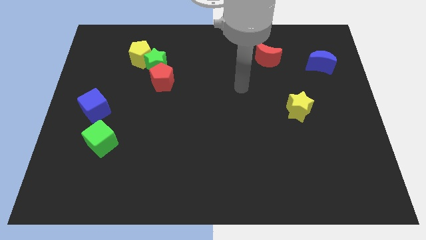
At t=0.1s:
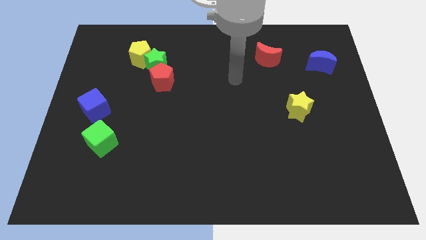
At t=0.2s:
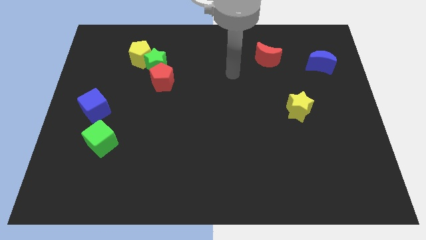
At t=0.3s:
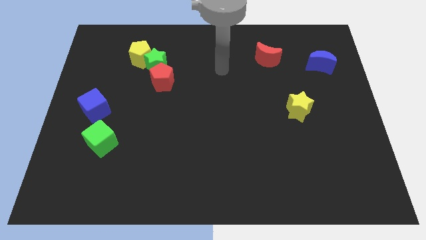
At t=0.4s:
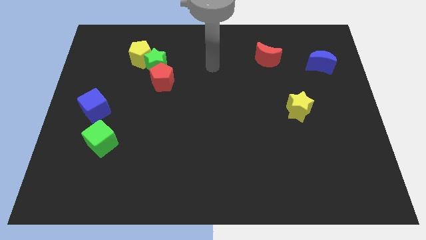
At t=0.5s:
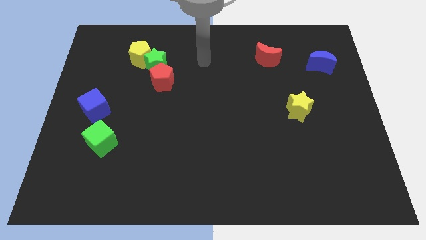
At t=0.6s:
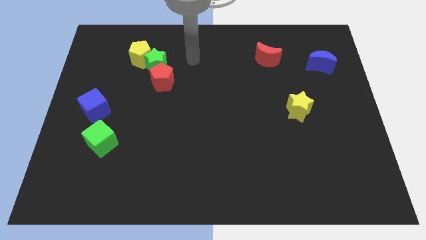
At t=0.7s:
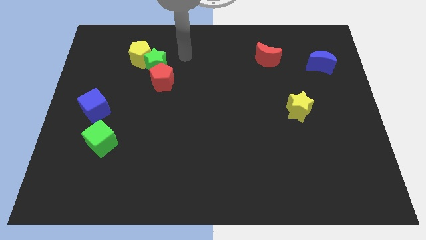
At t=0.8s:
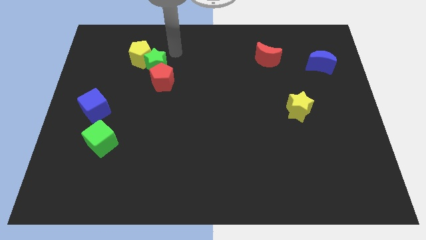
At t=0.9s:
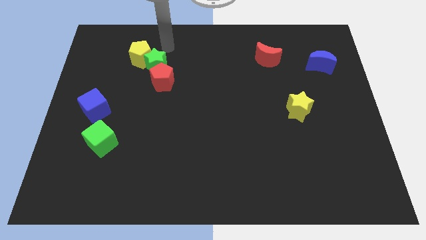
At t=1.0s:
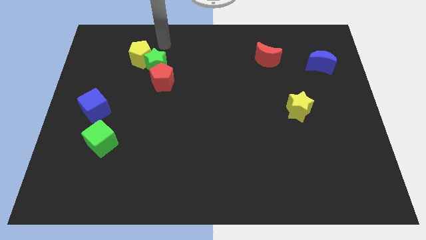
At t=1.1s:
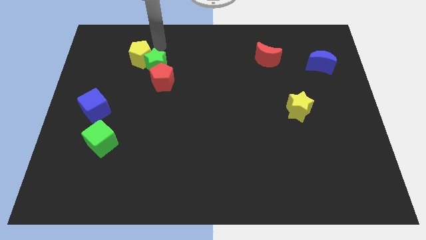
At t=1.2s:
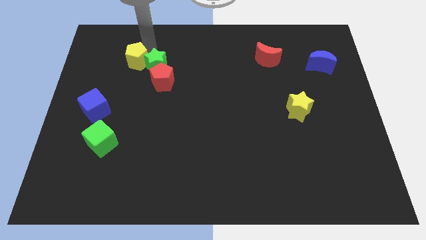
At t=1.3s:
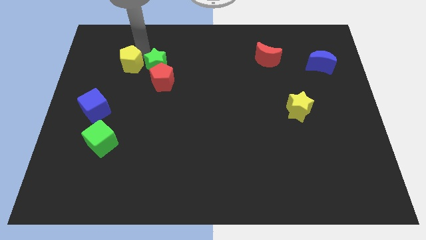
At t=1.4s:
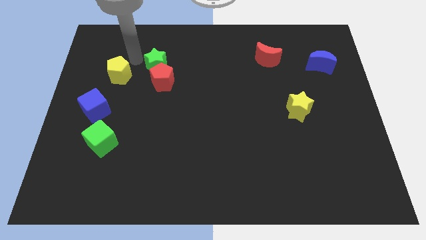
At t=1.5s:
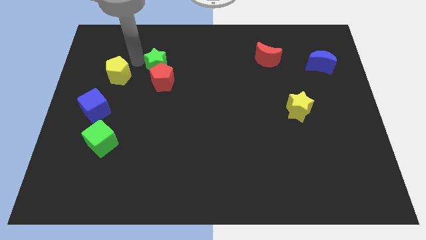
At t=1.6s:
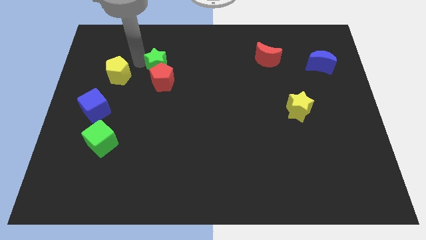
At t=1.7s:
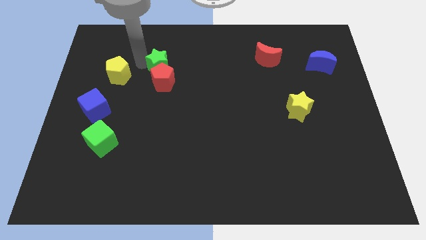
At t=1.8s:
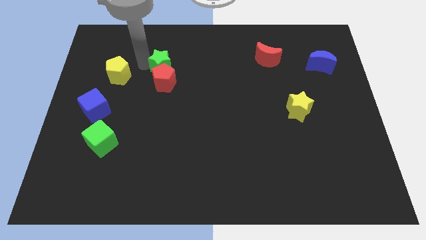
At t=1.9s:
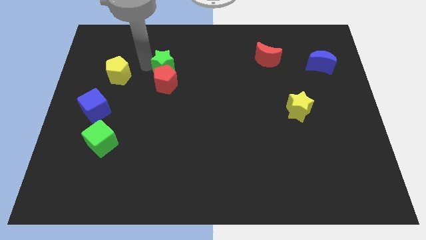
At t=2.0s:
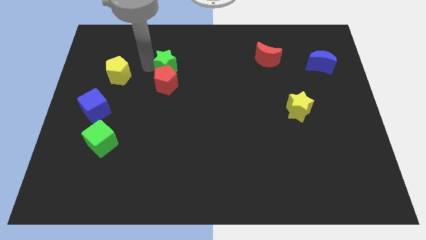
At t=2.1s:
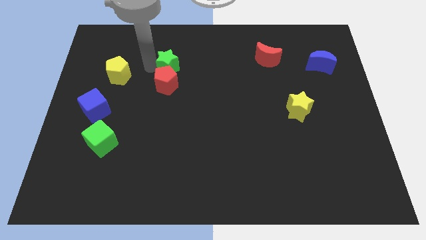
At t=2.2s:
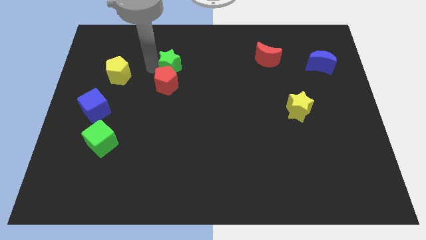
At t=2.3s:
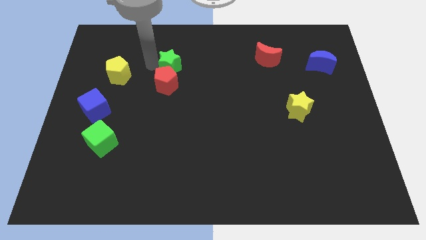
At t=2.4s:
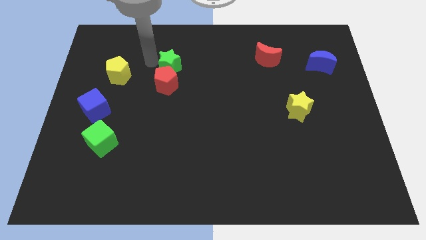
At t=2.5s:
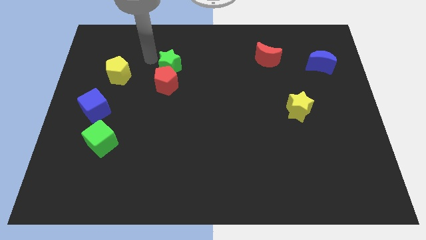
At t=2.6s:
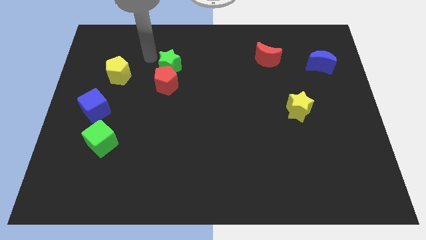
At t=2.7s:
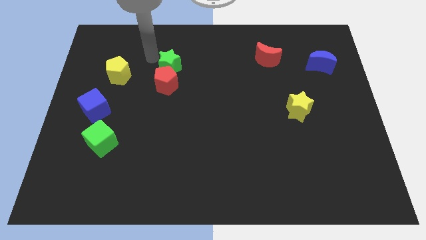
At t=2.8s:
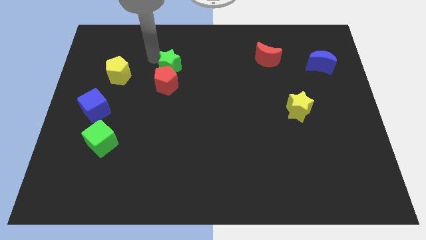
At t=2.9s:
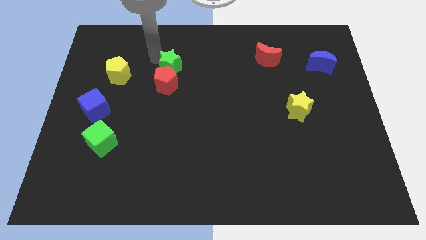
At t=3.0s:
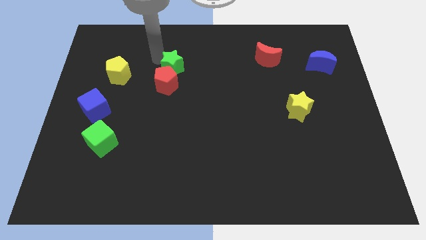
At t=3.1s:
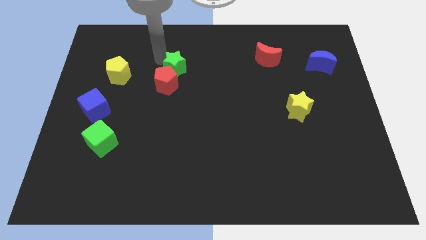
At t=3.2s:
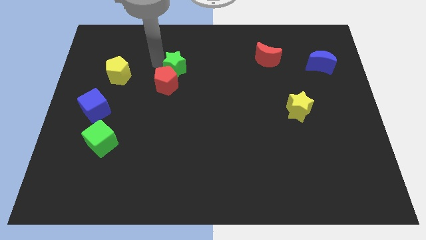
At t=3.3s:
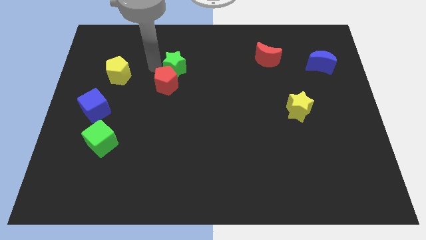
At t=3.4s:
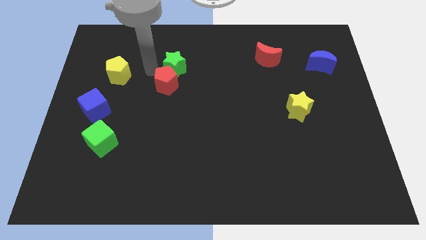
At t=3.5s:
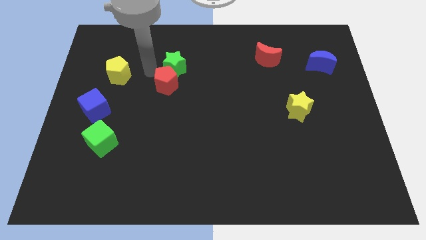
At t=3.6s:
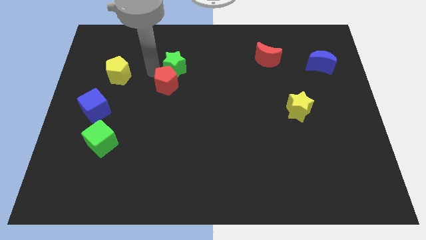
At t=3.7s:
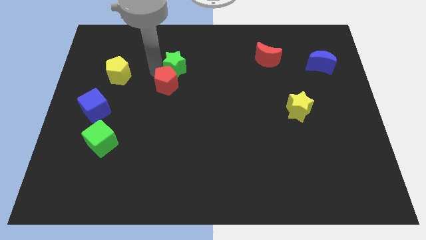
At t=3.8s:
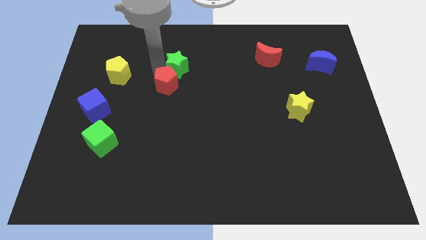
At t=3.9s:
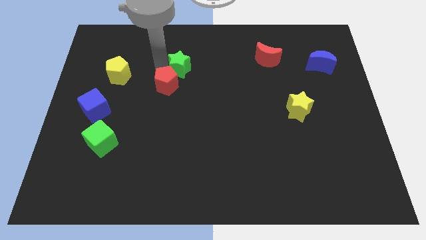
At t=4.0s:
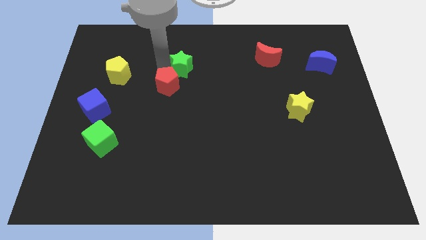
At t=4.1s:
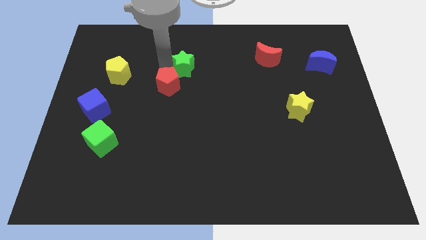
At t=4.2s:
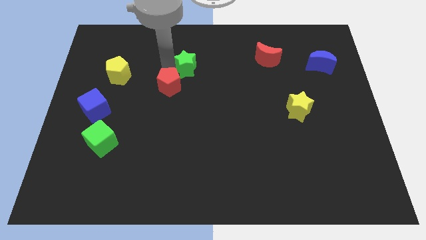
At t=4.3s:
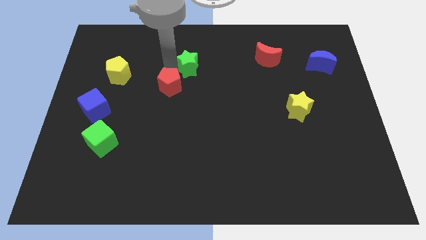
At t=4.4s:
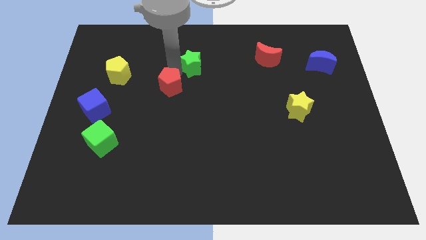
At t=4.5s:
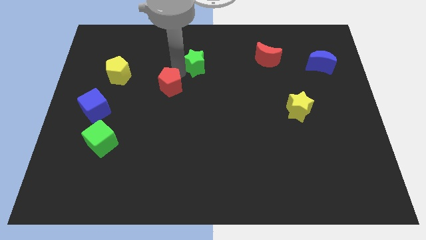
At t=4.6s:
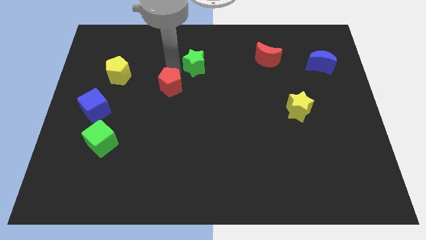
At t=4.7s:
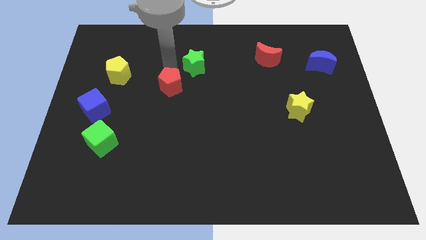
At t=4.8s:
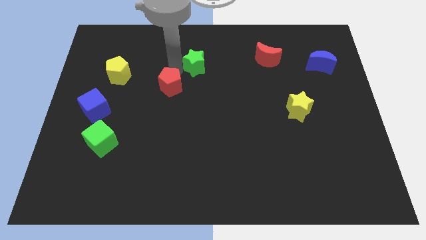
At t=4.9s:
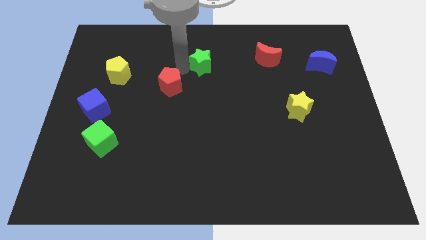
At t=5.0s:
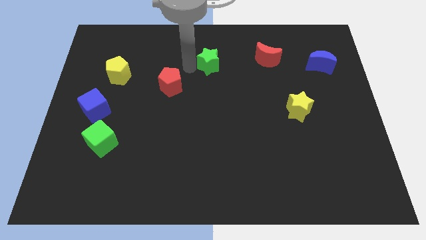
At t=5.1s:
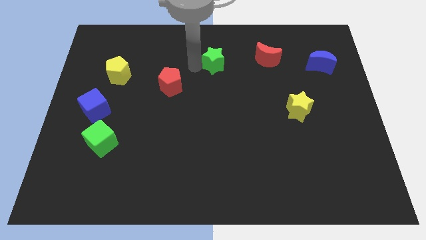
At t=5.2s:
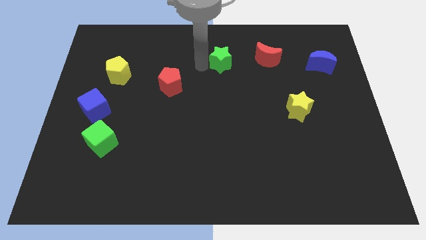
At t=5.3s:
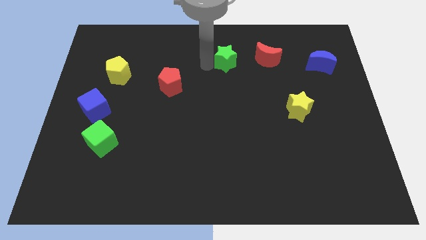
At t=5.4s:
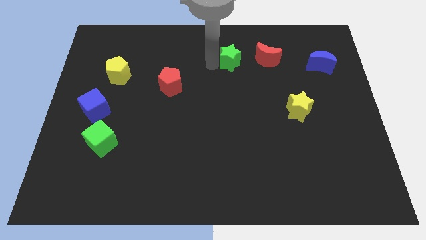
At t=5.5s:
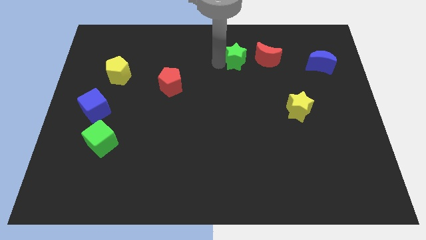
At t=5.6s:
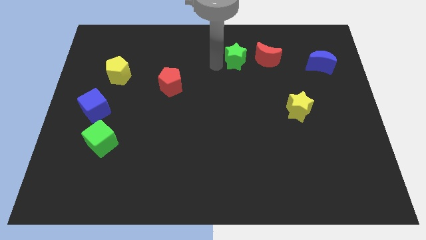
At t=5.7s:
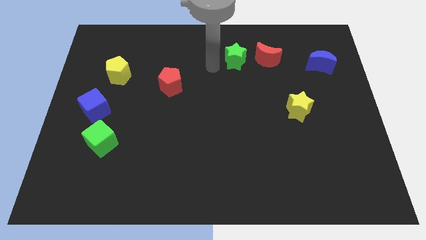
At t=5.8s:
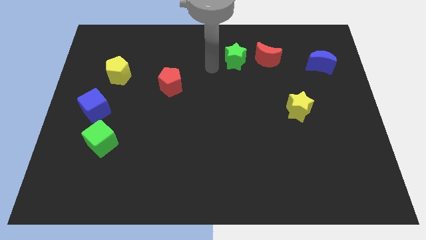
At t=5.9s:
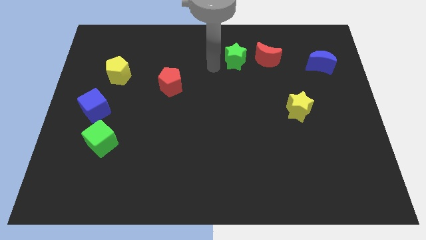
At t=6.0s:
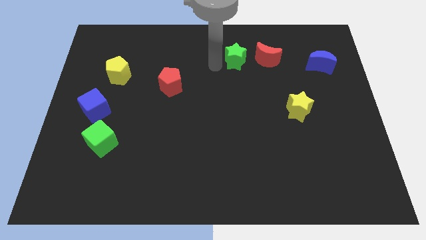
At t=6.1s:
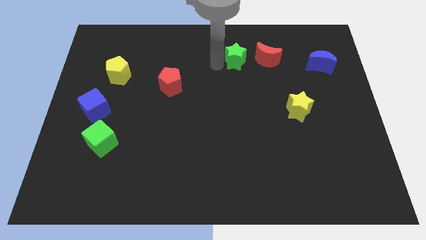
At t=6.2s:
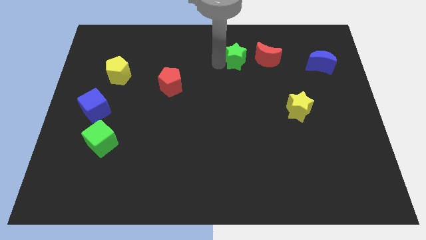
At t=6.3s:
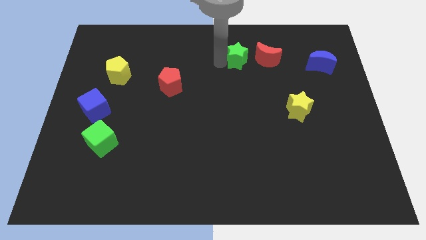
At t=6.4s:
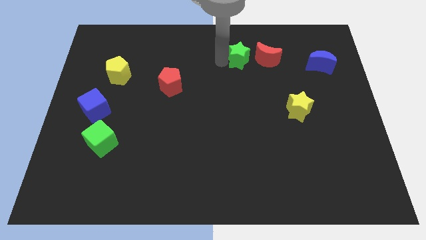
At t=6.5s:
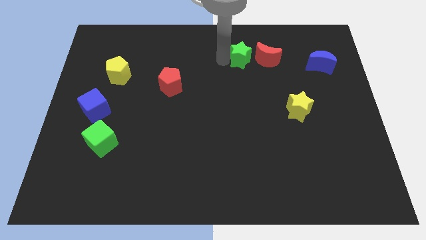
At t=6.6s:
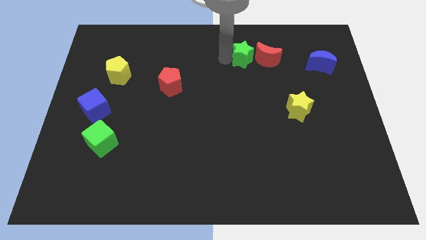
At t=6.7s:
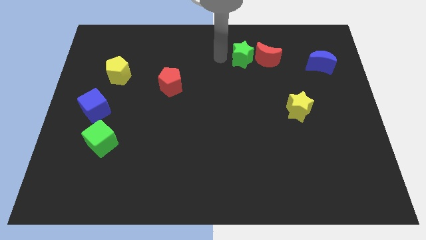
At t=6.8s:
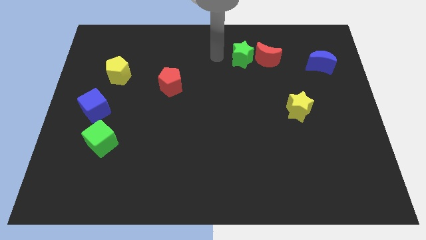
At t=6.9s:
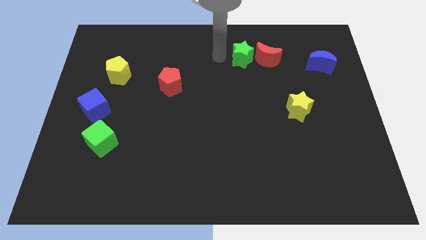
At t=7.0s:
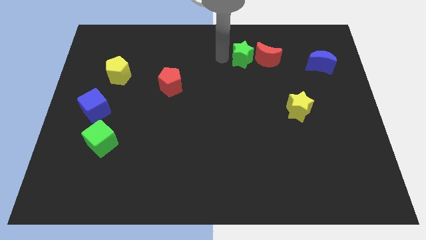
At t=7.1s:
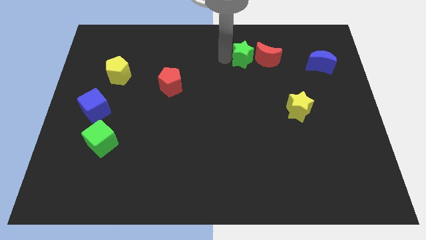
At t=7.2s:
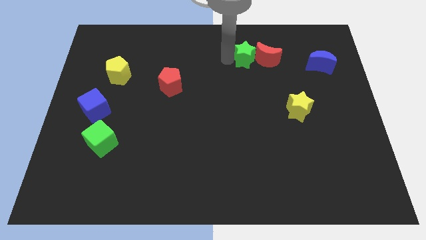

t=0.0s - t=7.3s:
move the green star close to the red moon
